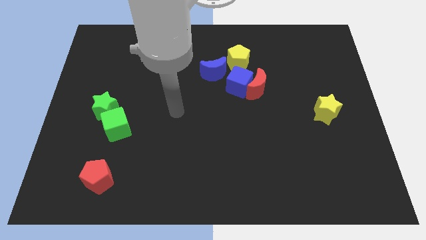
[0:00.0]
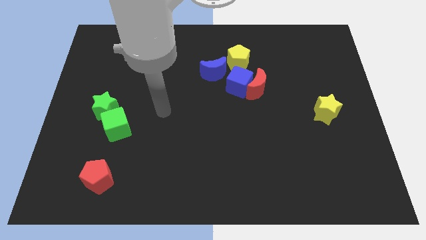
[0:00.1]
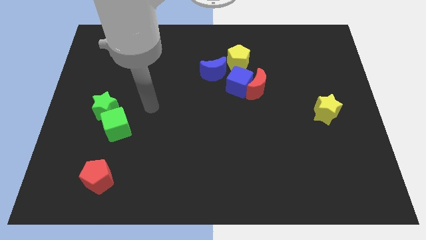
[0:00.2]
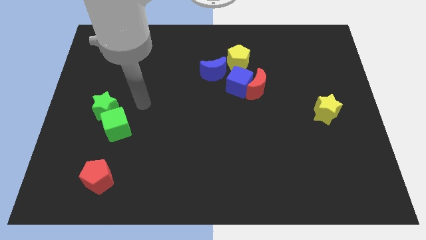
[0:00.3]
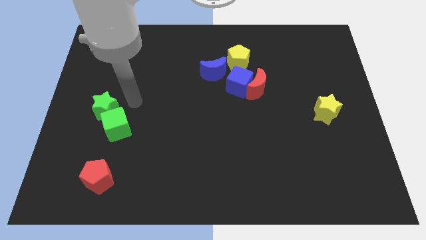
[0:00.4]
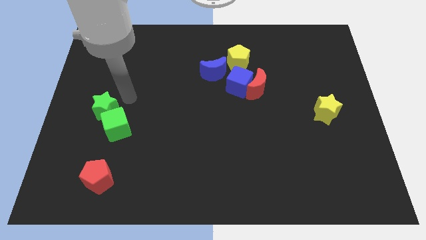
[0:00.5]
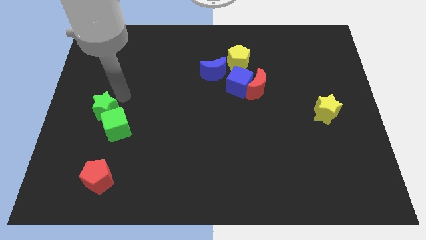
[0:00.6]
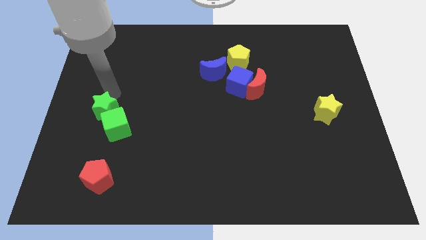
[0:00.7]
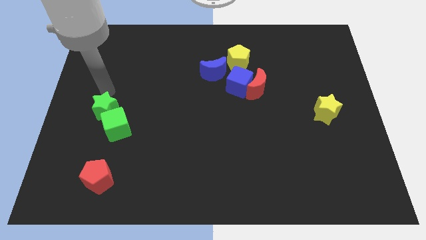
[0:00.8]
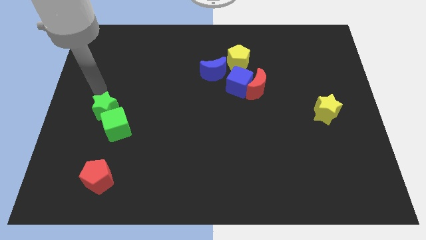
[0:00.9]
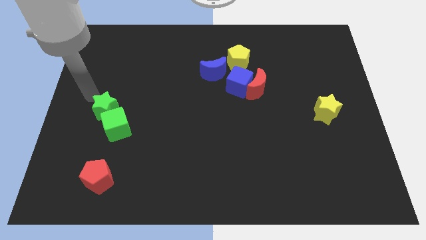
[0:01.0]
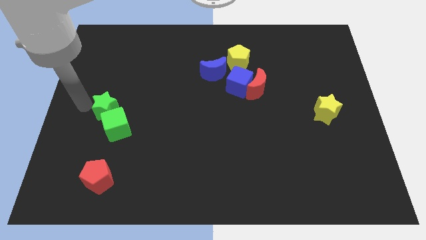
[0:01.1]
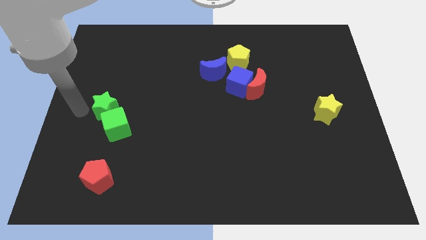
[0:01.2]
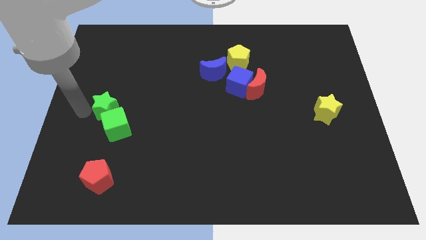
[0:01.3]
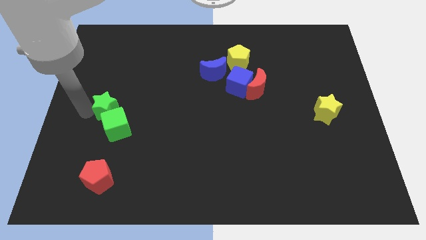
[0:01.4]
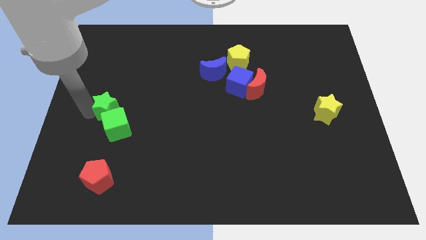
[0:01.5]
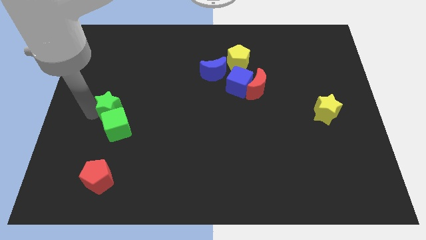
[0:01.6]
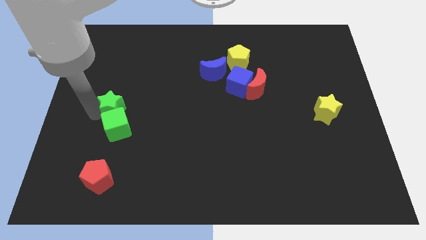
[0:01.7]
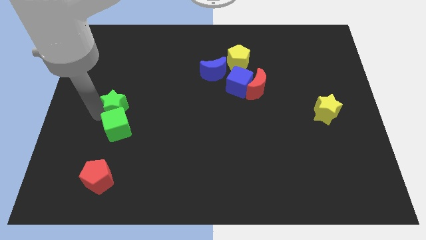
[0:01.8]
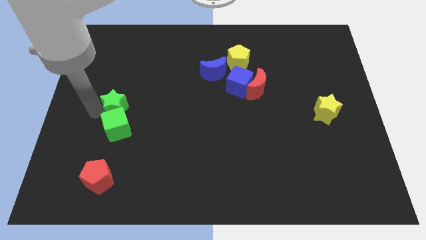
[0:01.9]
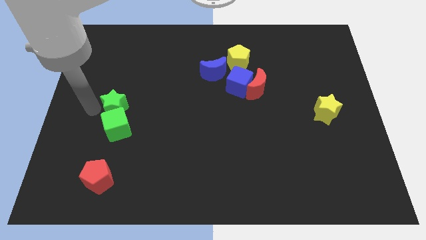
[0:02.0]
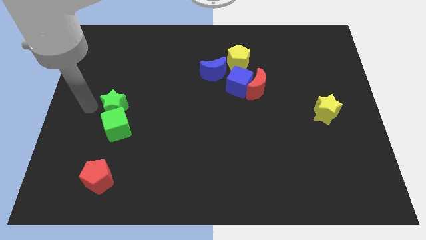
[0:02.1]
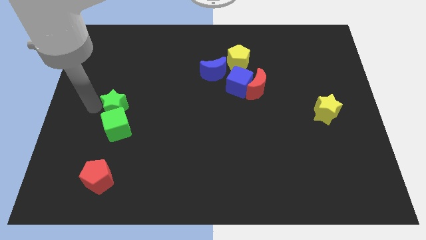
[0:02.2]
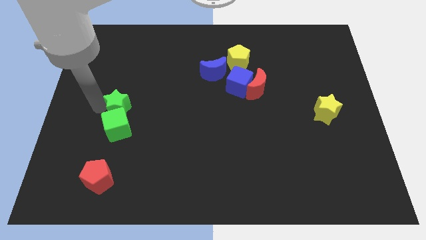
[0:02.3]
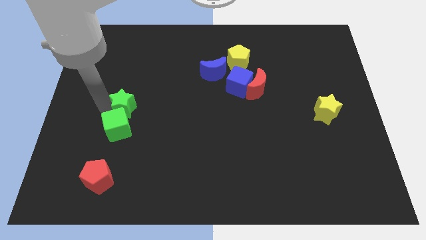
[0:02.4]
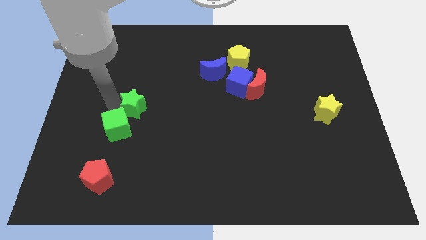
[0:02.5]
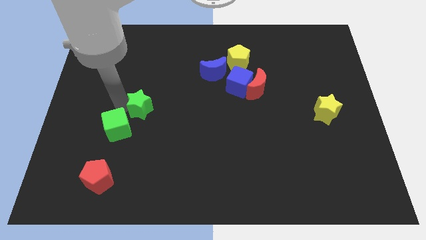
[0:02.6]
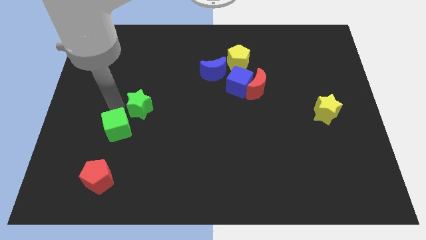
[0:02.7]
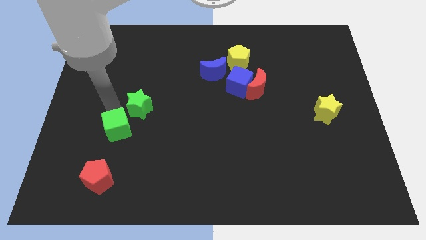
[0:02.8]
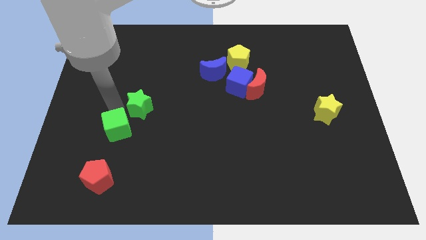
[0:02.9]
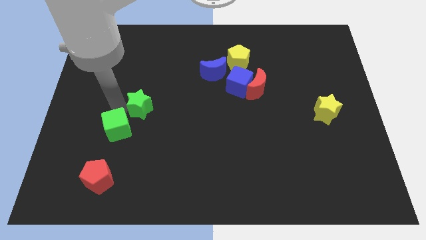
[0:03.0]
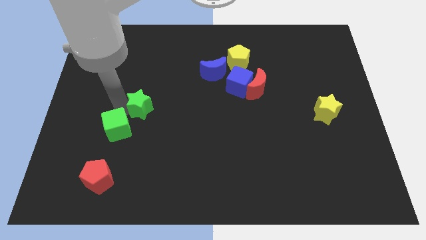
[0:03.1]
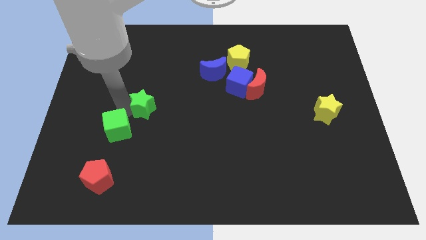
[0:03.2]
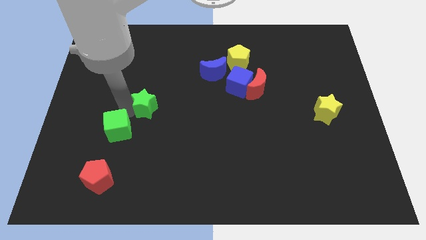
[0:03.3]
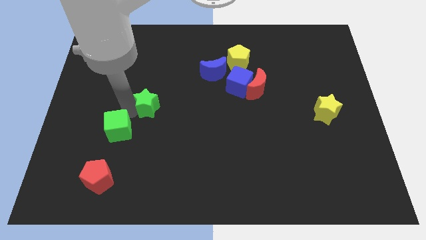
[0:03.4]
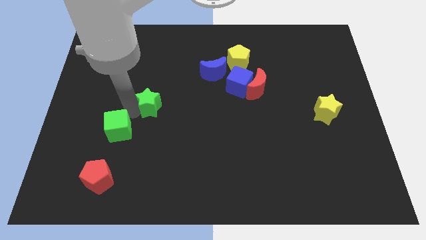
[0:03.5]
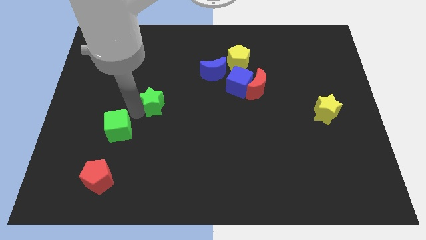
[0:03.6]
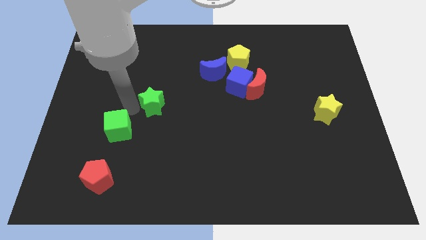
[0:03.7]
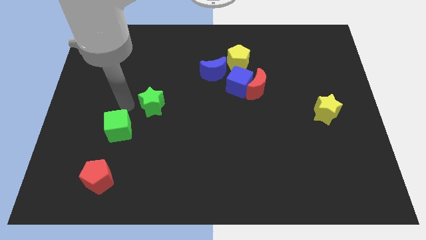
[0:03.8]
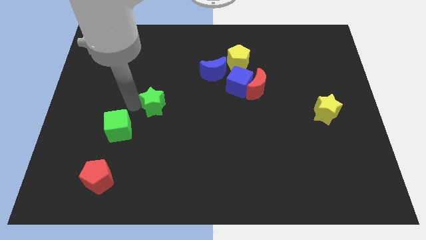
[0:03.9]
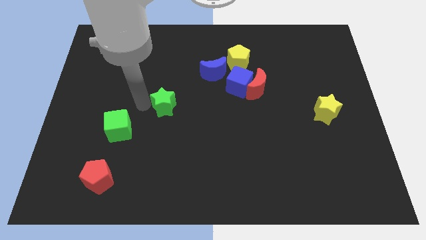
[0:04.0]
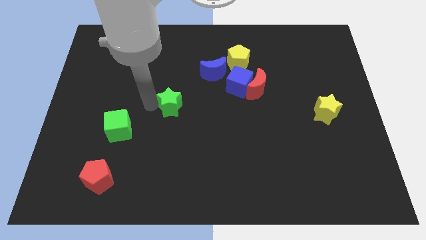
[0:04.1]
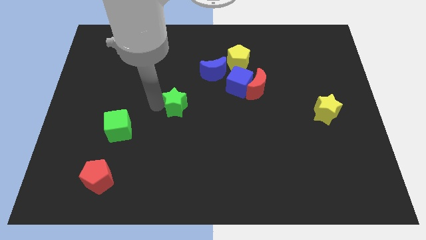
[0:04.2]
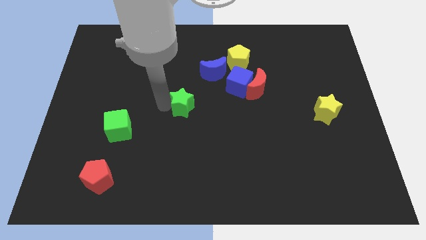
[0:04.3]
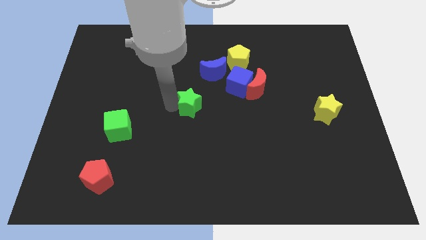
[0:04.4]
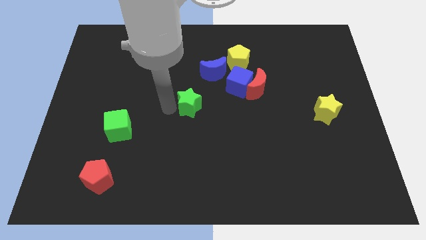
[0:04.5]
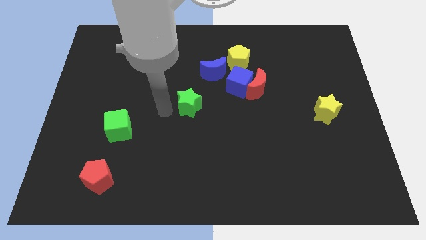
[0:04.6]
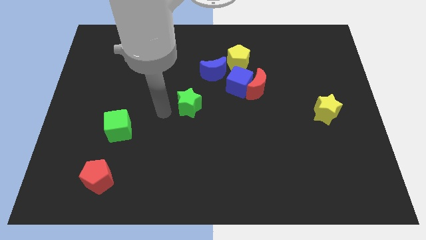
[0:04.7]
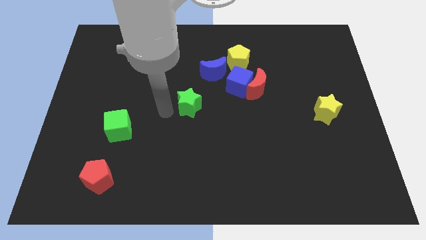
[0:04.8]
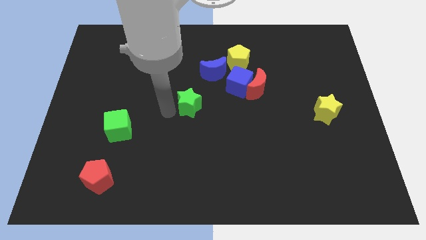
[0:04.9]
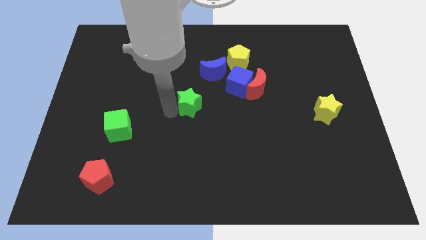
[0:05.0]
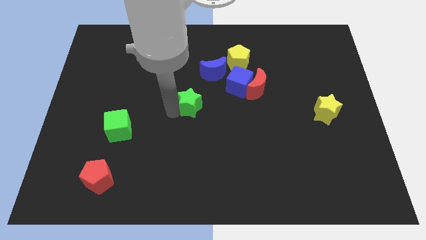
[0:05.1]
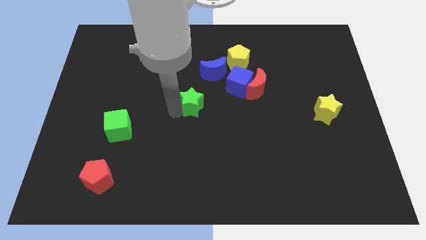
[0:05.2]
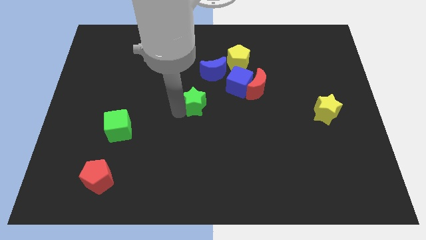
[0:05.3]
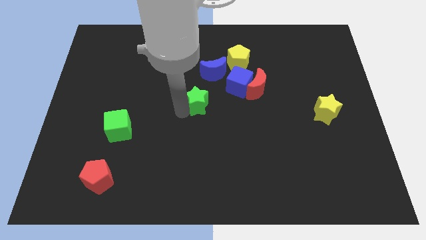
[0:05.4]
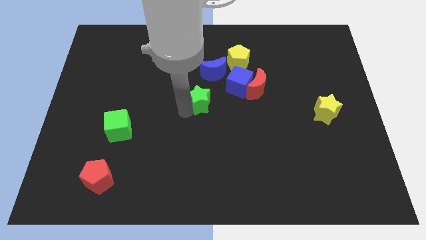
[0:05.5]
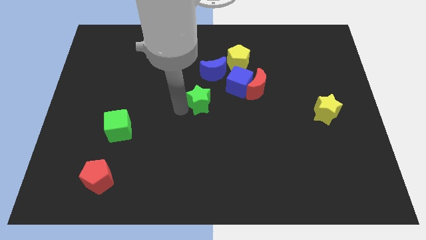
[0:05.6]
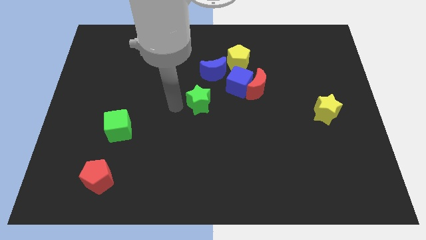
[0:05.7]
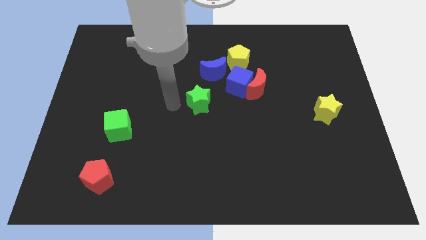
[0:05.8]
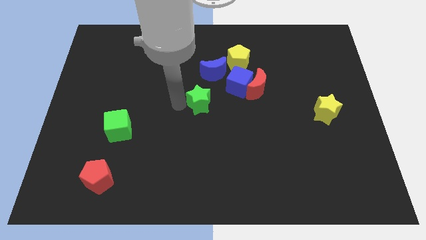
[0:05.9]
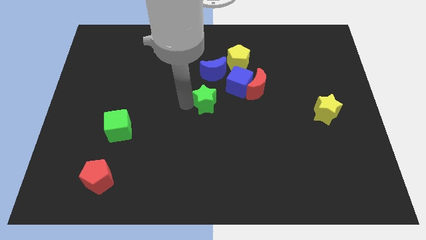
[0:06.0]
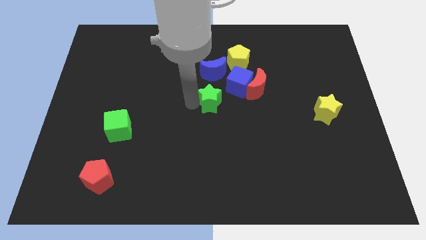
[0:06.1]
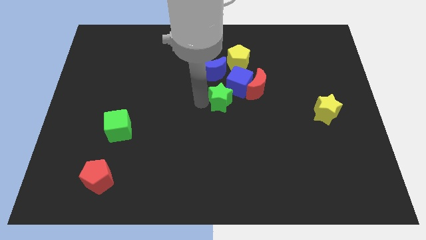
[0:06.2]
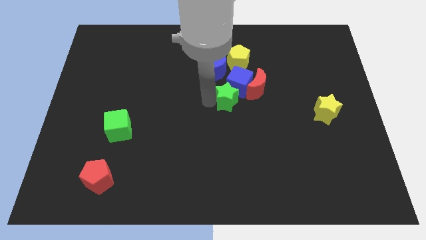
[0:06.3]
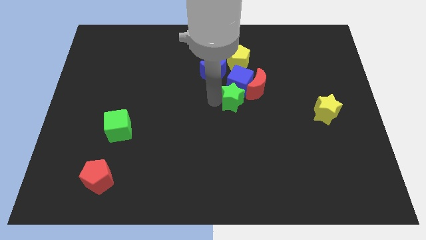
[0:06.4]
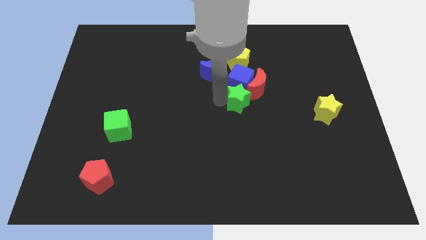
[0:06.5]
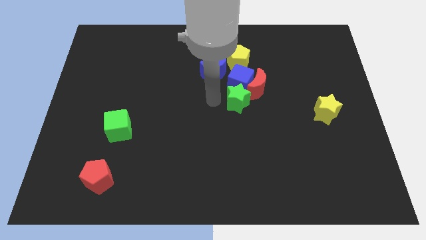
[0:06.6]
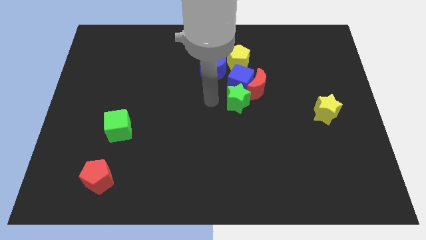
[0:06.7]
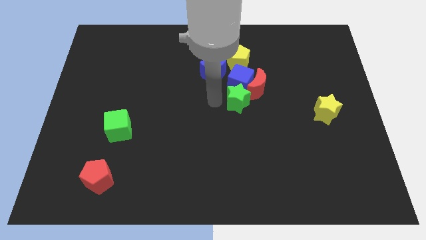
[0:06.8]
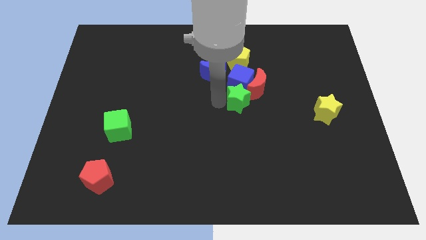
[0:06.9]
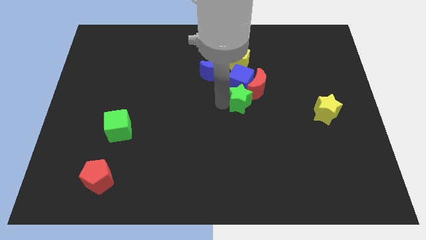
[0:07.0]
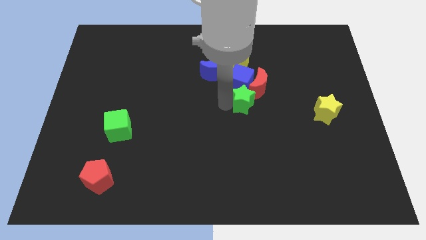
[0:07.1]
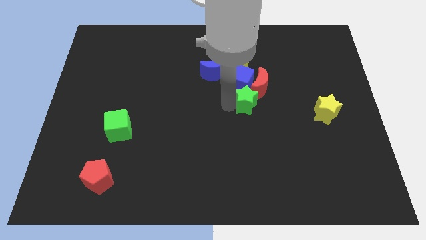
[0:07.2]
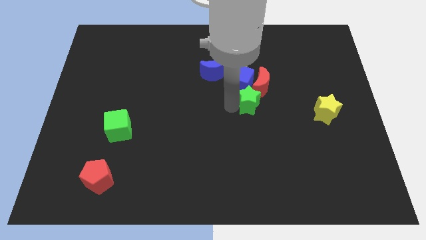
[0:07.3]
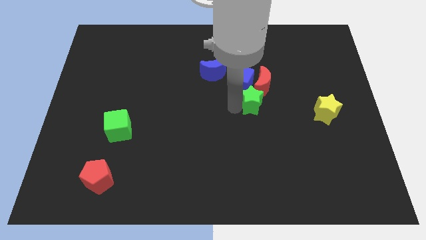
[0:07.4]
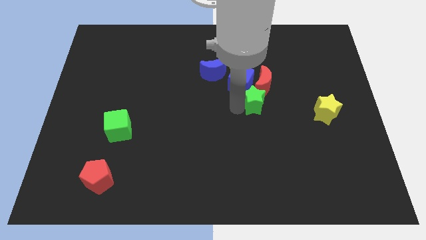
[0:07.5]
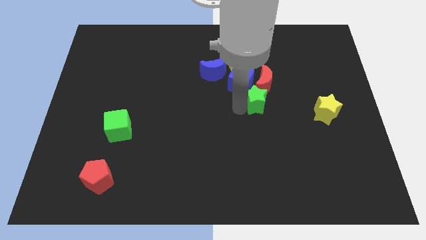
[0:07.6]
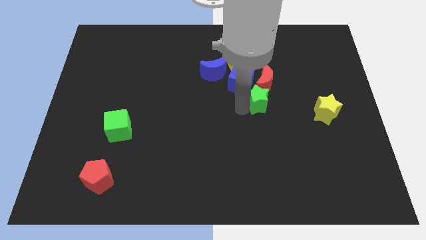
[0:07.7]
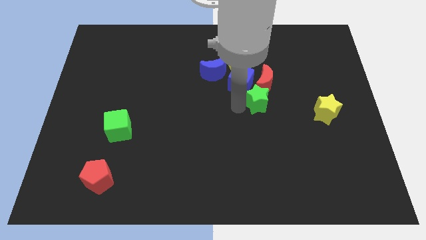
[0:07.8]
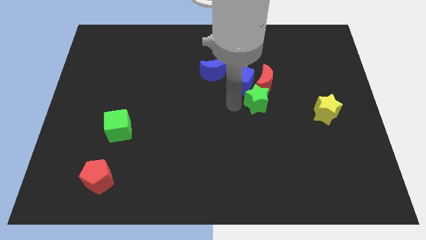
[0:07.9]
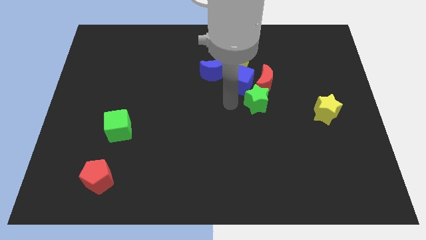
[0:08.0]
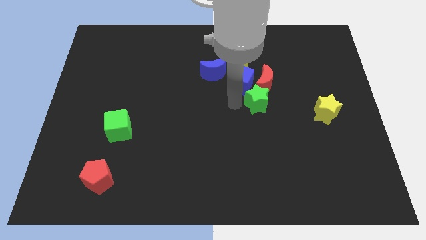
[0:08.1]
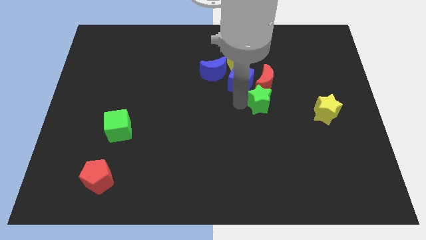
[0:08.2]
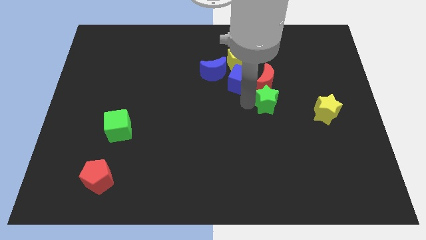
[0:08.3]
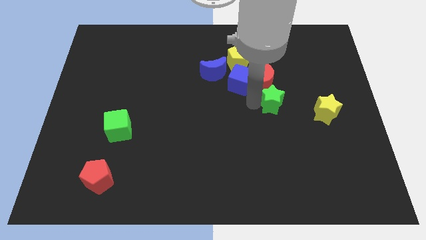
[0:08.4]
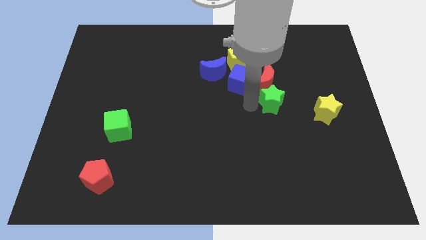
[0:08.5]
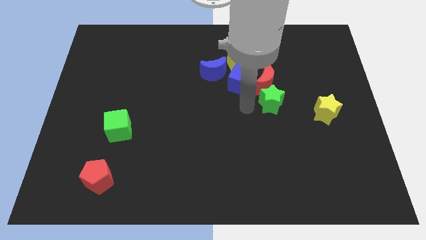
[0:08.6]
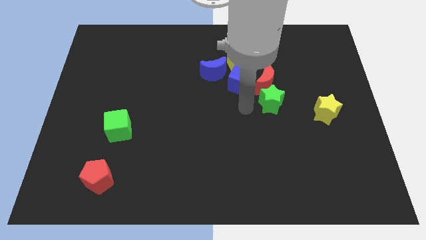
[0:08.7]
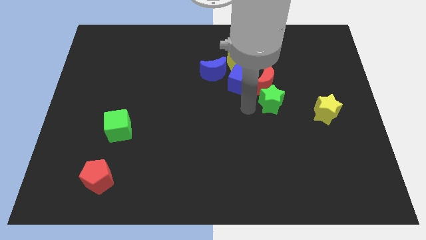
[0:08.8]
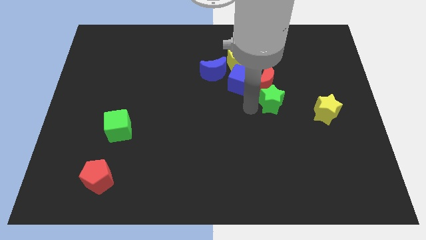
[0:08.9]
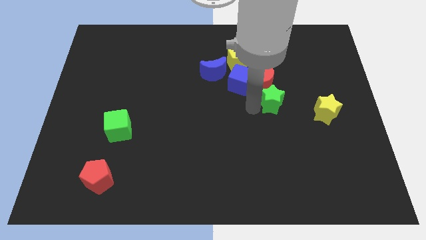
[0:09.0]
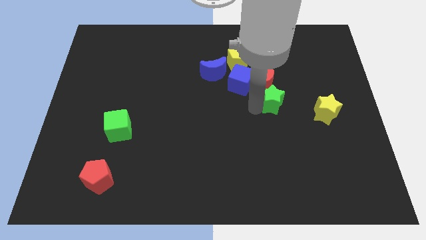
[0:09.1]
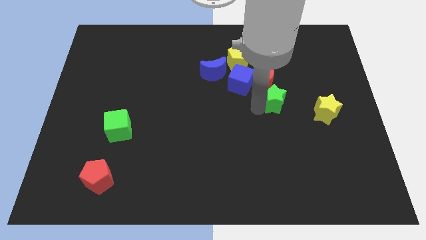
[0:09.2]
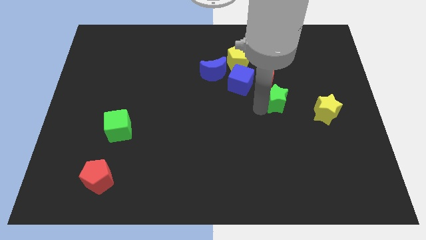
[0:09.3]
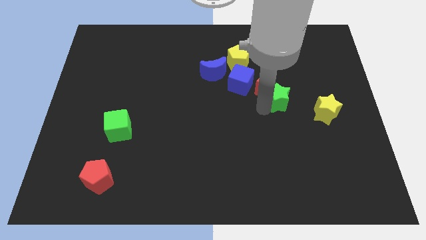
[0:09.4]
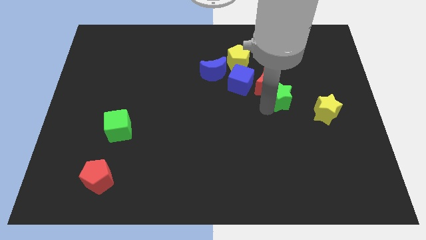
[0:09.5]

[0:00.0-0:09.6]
put the green star to the top left of the yellow star
